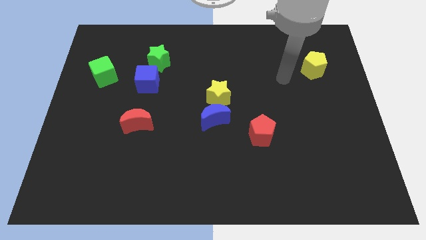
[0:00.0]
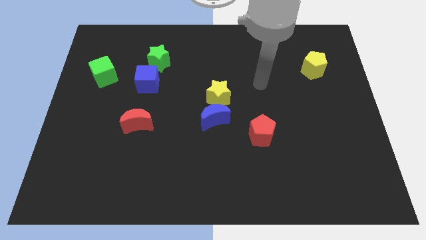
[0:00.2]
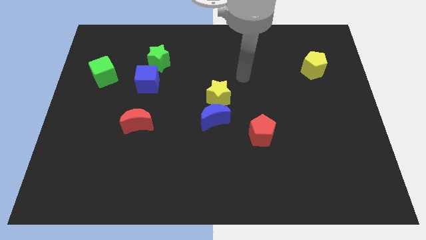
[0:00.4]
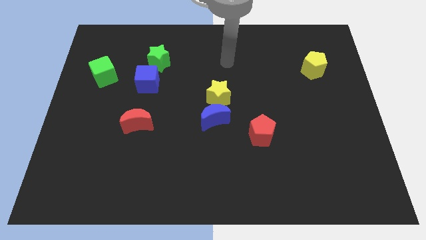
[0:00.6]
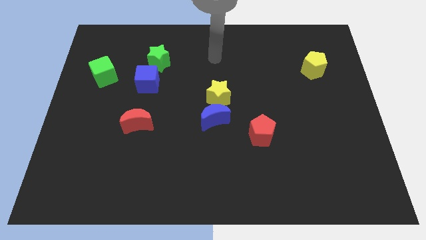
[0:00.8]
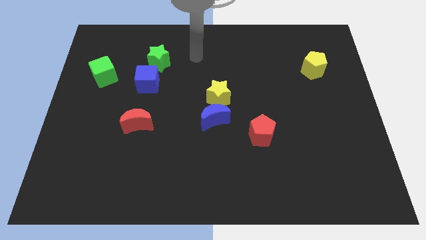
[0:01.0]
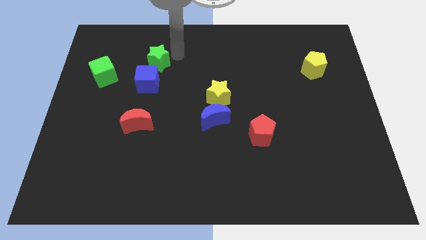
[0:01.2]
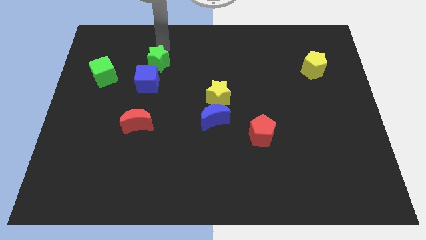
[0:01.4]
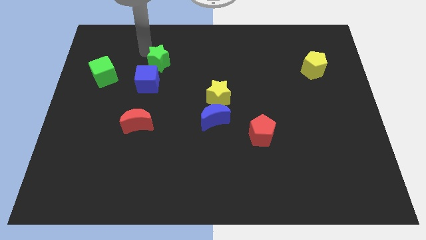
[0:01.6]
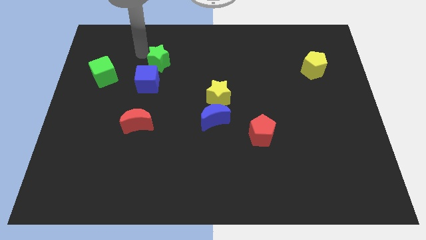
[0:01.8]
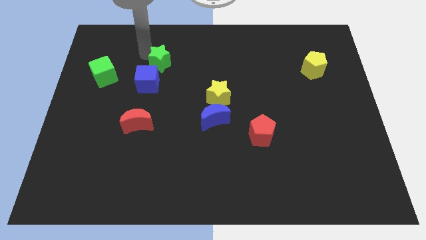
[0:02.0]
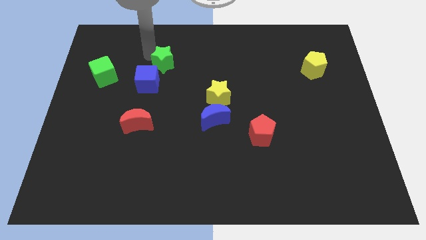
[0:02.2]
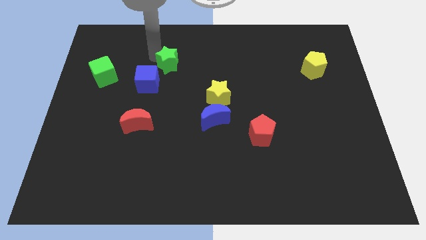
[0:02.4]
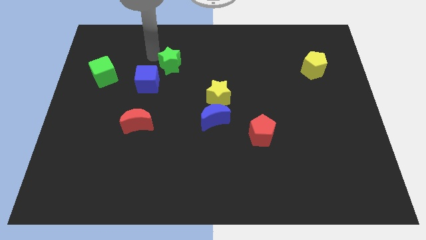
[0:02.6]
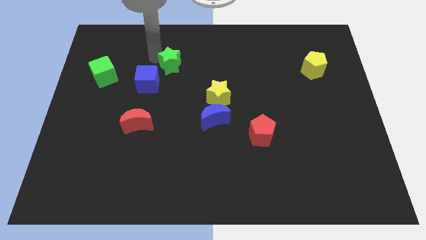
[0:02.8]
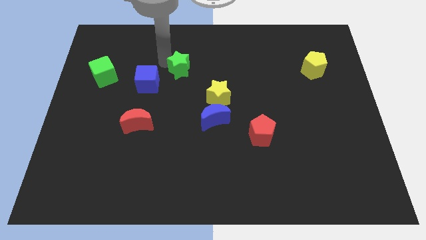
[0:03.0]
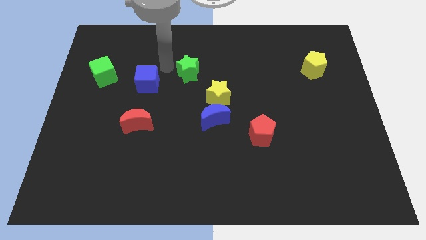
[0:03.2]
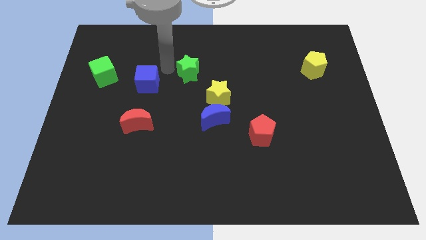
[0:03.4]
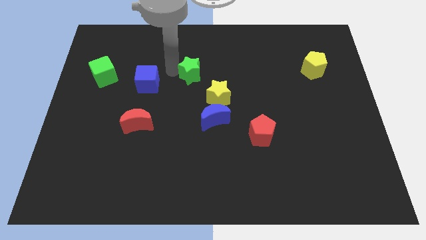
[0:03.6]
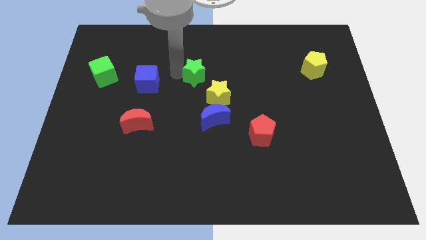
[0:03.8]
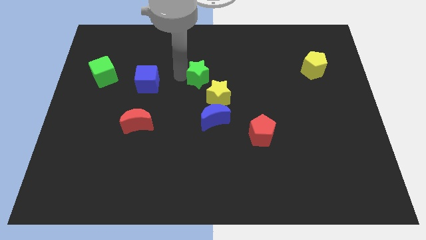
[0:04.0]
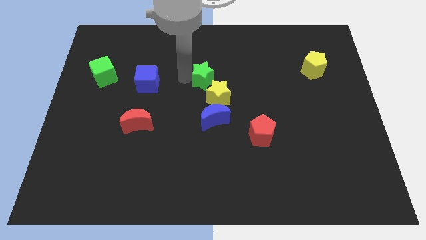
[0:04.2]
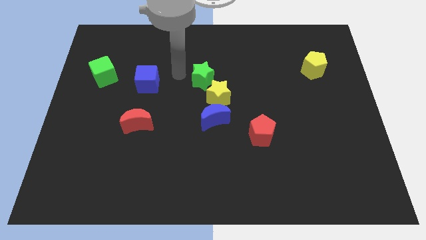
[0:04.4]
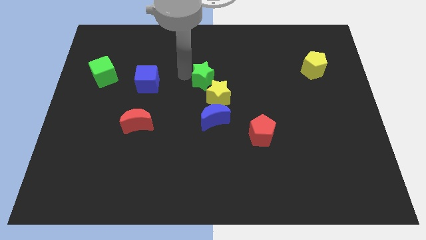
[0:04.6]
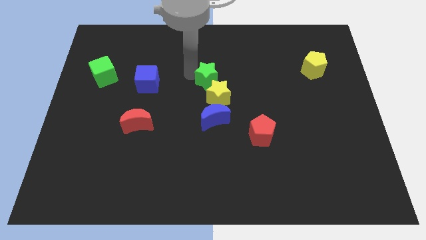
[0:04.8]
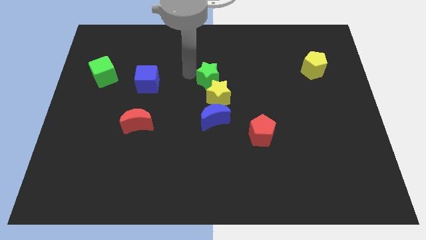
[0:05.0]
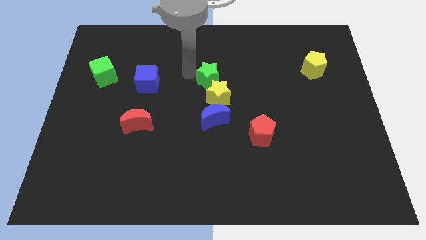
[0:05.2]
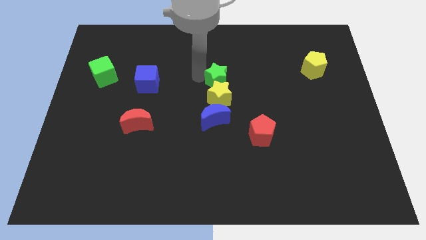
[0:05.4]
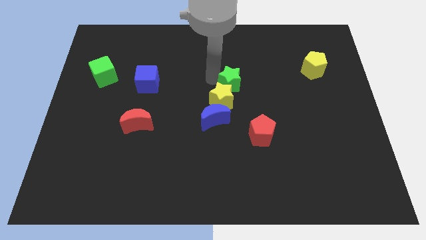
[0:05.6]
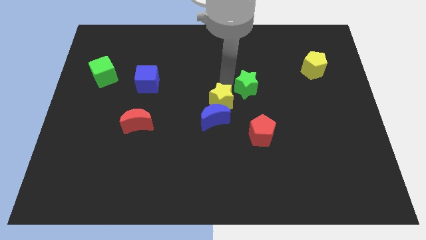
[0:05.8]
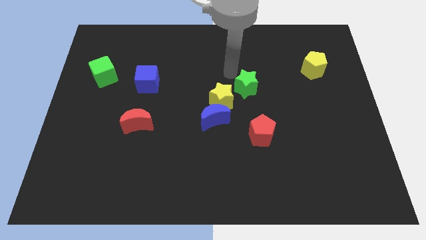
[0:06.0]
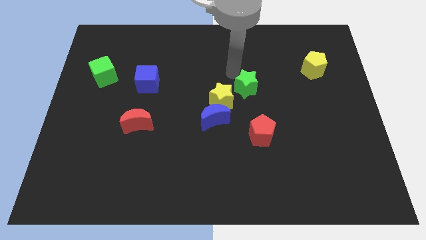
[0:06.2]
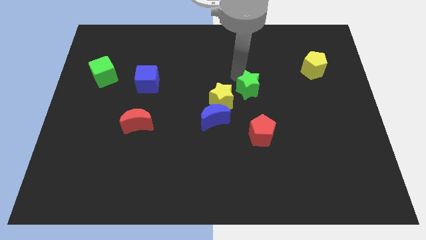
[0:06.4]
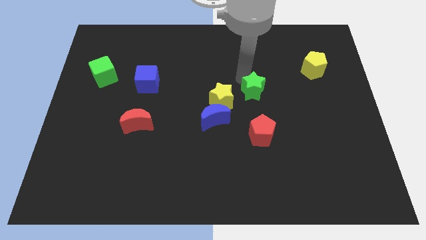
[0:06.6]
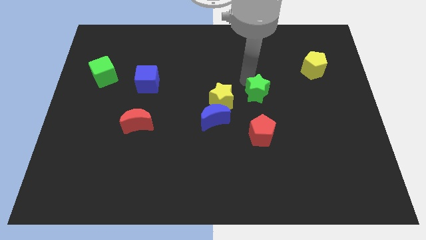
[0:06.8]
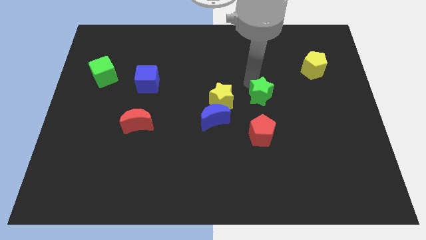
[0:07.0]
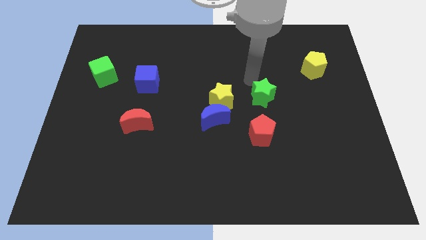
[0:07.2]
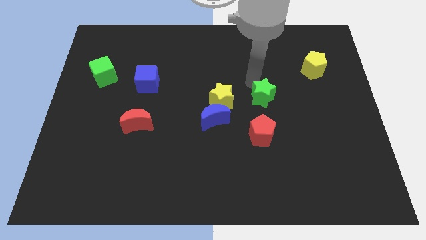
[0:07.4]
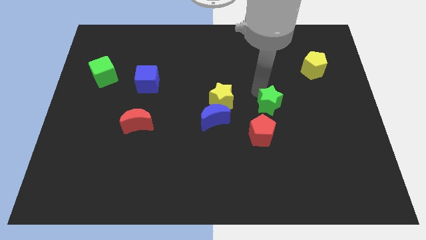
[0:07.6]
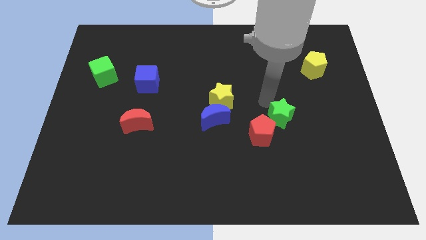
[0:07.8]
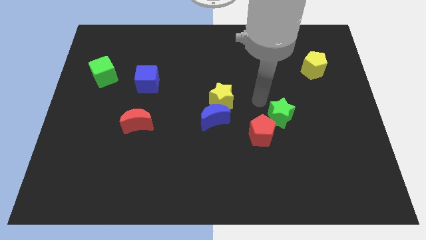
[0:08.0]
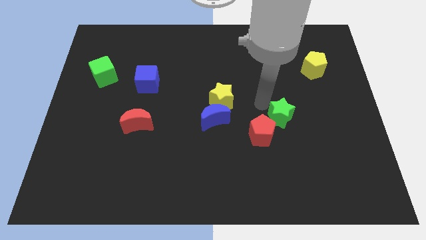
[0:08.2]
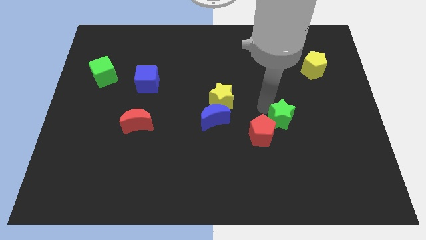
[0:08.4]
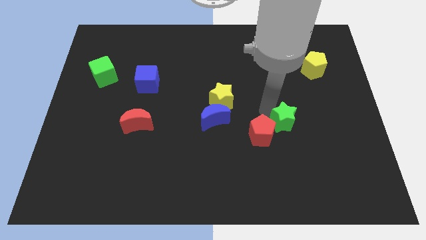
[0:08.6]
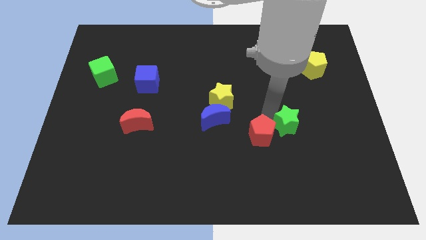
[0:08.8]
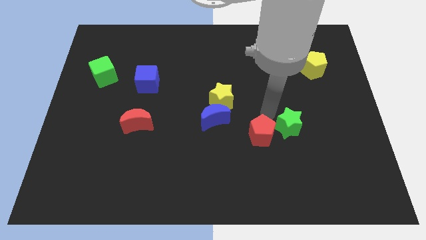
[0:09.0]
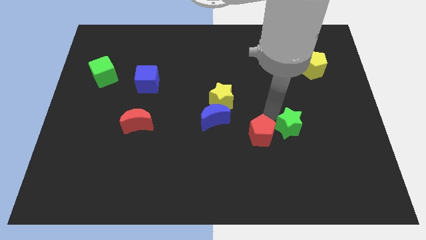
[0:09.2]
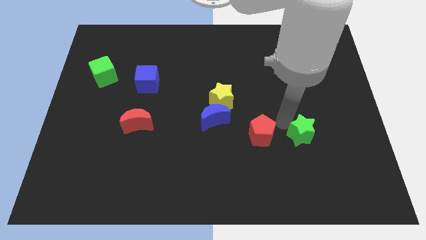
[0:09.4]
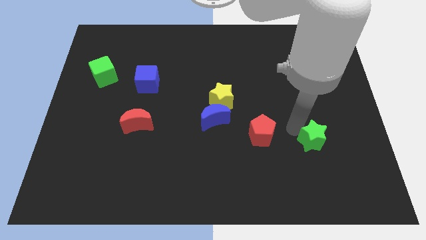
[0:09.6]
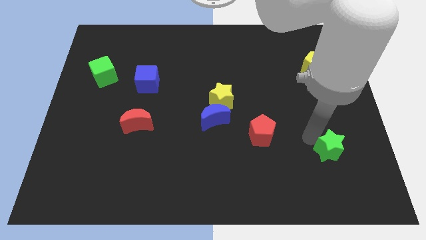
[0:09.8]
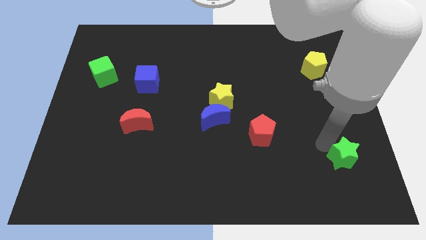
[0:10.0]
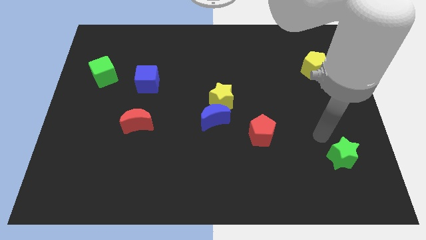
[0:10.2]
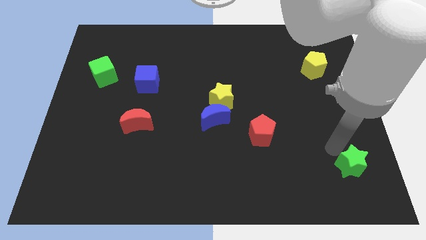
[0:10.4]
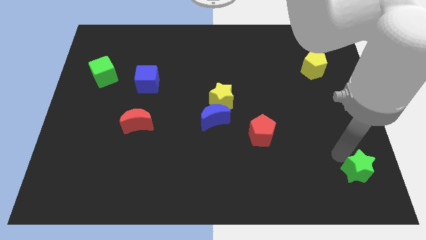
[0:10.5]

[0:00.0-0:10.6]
put the green star to the bottom right

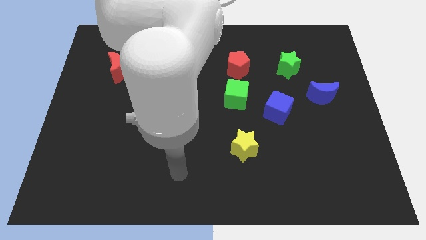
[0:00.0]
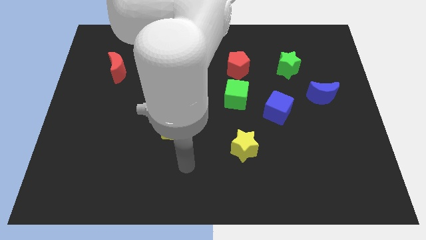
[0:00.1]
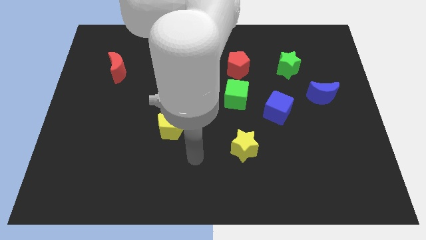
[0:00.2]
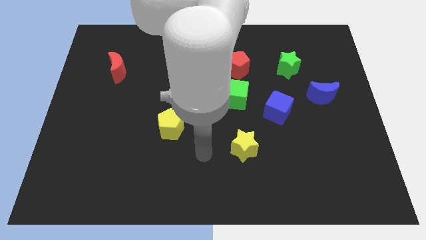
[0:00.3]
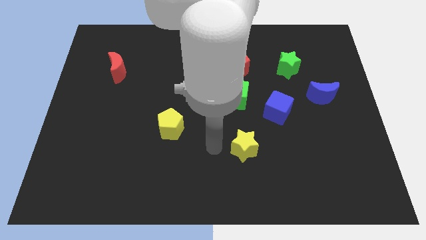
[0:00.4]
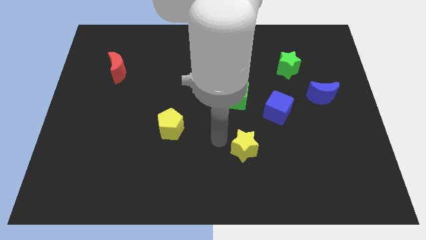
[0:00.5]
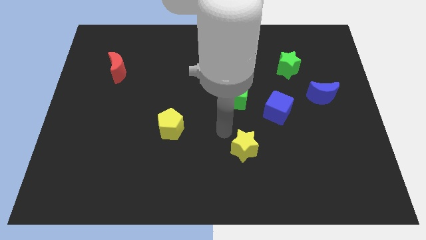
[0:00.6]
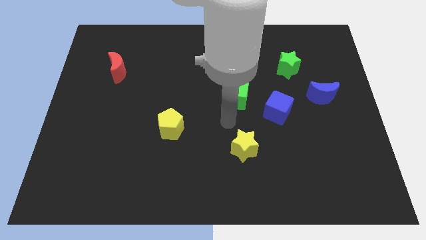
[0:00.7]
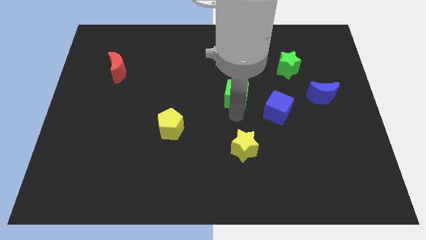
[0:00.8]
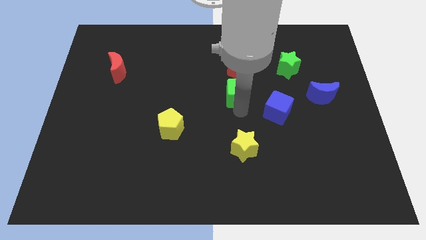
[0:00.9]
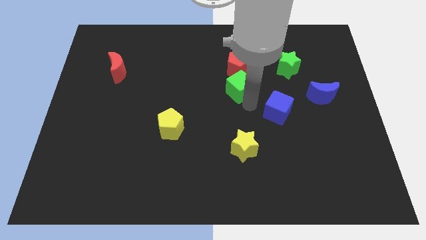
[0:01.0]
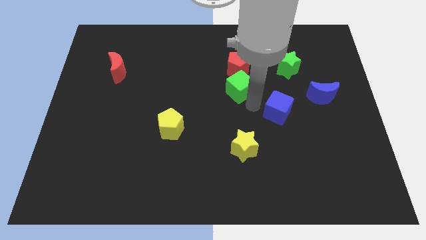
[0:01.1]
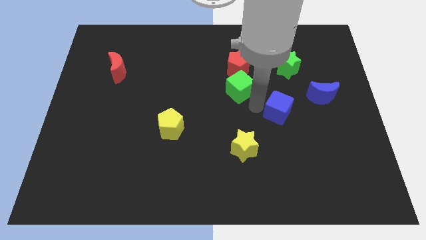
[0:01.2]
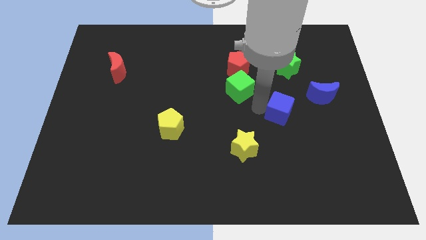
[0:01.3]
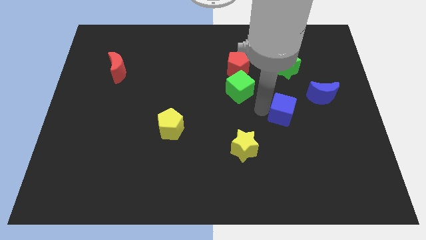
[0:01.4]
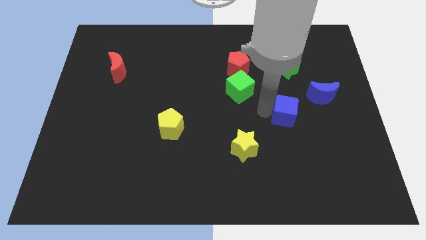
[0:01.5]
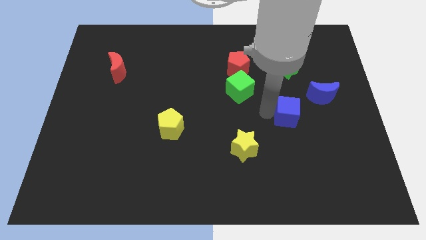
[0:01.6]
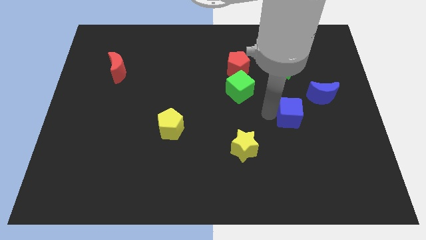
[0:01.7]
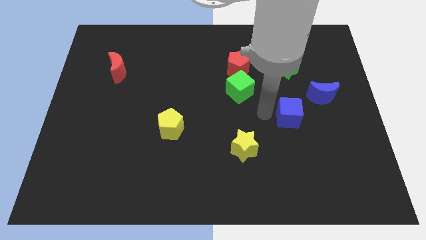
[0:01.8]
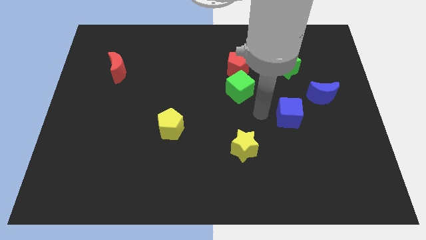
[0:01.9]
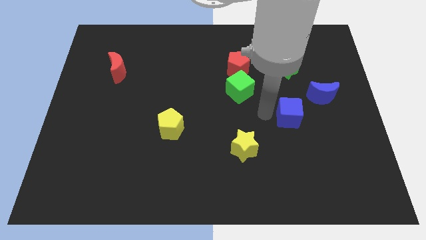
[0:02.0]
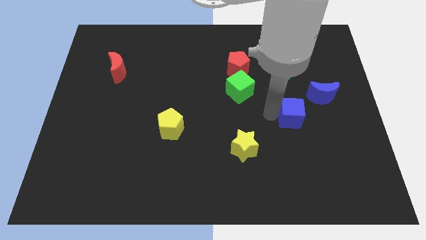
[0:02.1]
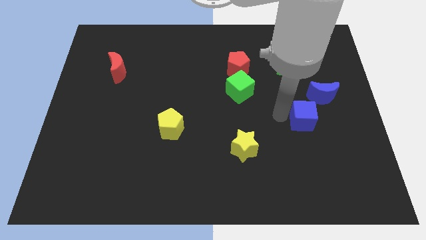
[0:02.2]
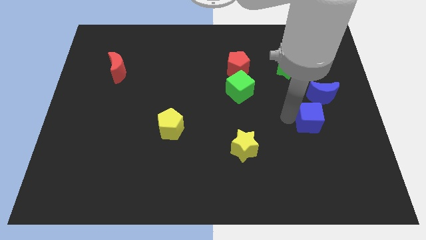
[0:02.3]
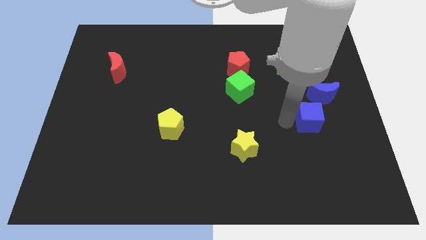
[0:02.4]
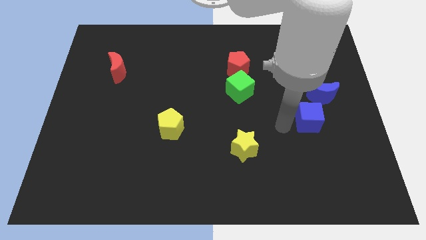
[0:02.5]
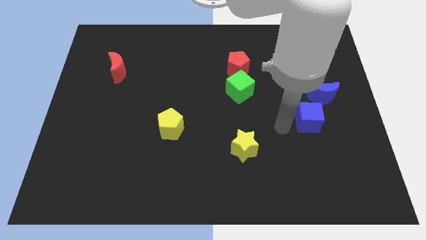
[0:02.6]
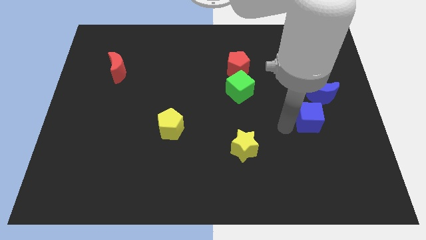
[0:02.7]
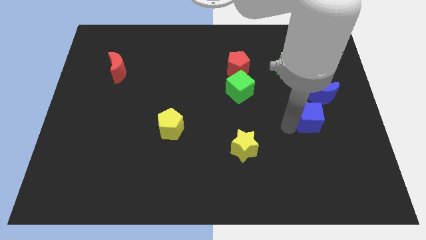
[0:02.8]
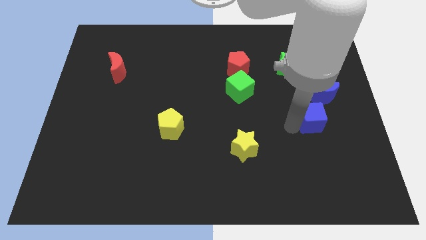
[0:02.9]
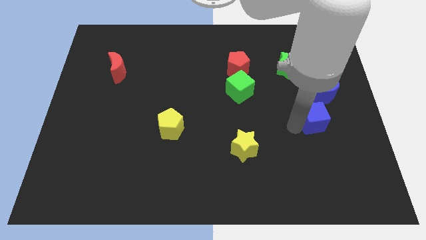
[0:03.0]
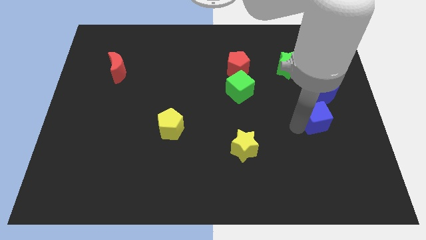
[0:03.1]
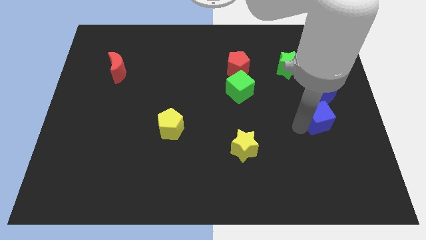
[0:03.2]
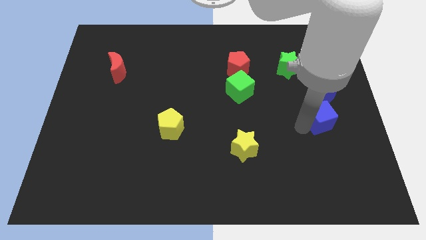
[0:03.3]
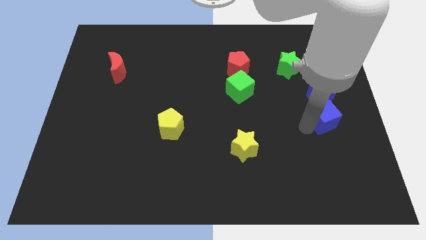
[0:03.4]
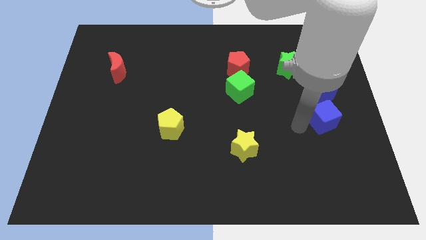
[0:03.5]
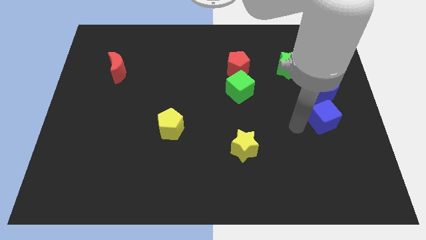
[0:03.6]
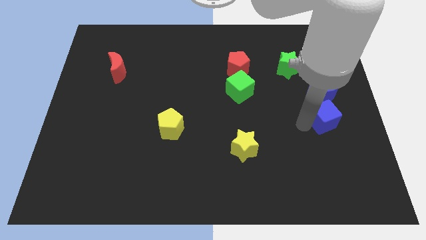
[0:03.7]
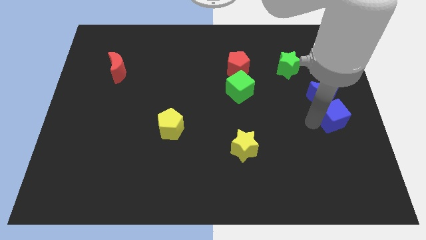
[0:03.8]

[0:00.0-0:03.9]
slide the blue cube to the center right
